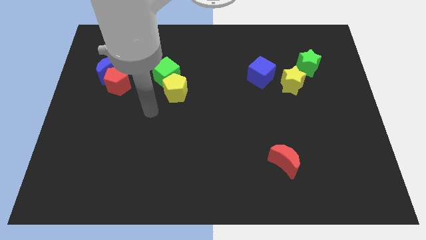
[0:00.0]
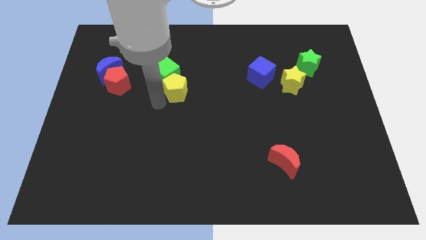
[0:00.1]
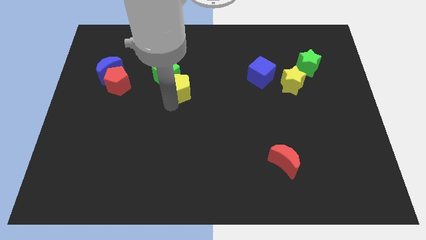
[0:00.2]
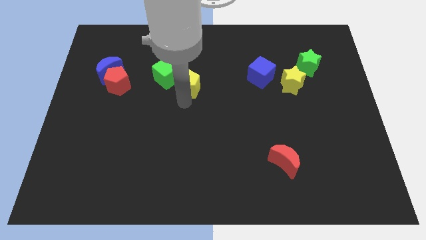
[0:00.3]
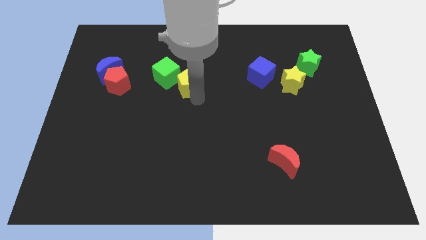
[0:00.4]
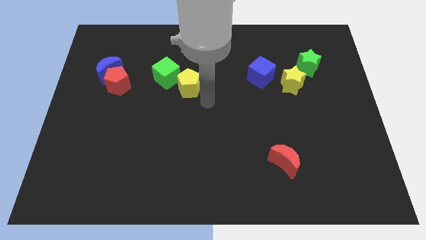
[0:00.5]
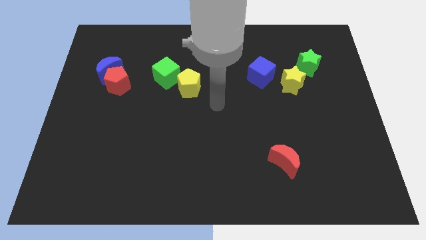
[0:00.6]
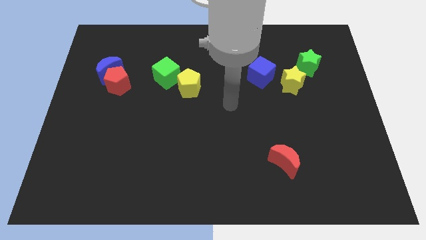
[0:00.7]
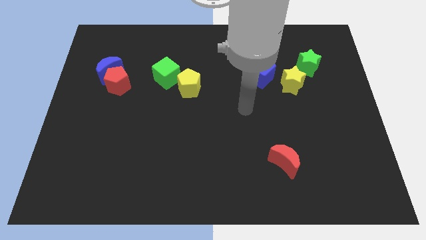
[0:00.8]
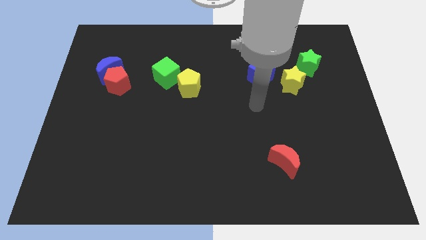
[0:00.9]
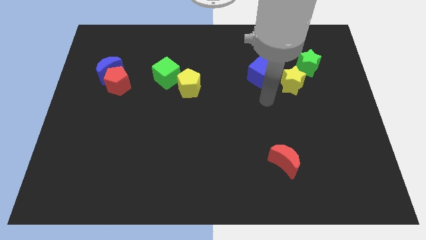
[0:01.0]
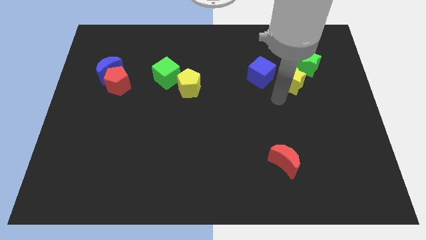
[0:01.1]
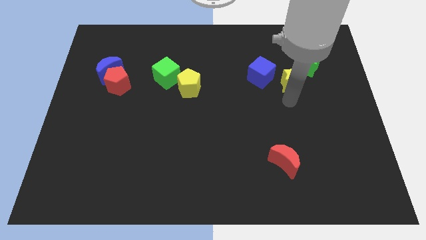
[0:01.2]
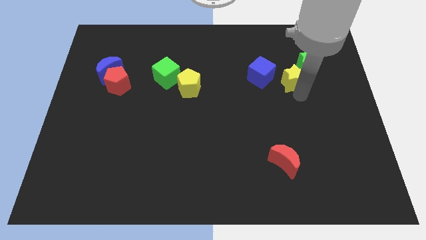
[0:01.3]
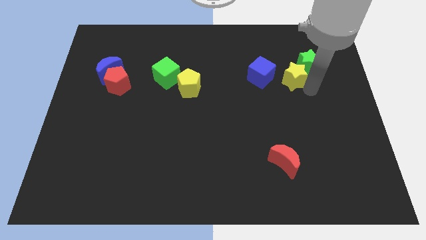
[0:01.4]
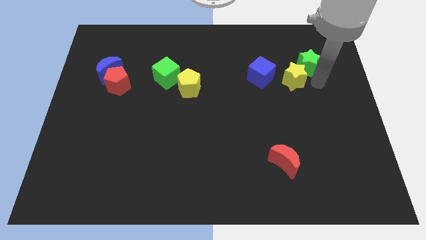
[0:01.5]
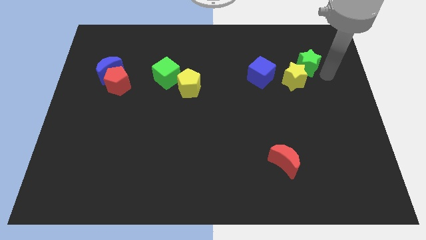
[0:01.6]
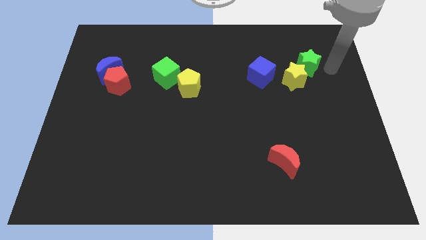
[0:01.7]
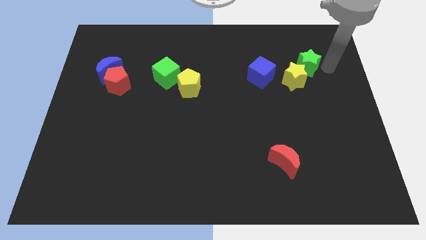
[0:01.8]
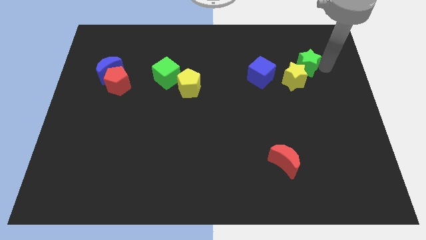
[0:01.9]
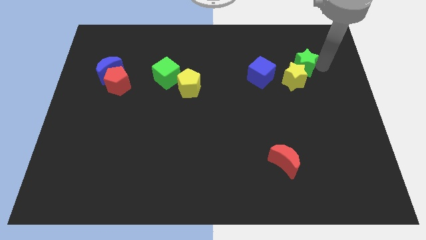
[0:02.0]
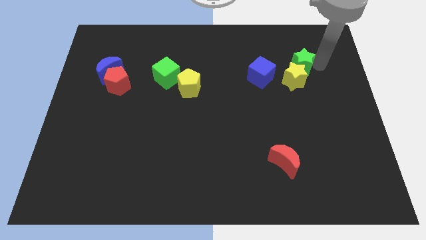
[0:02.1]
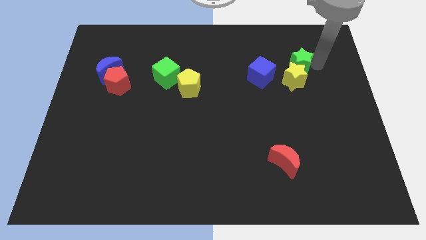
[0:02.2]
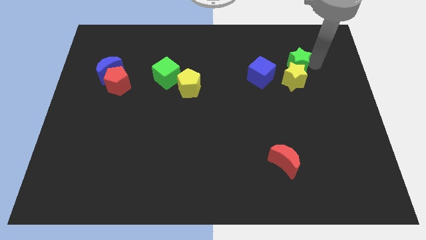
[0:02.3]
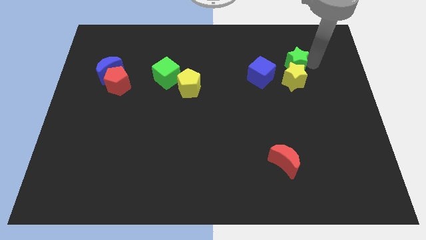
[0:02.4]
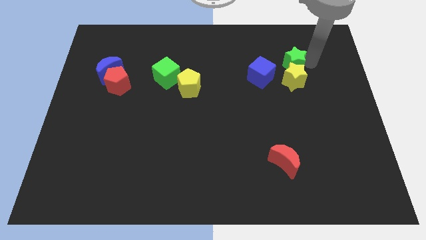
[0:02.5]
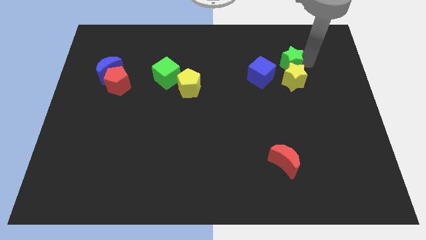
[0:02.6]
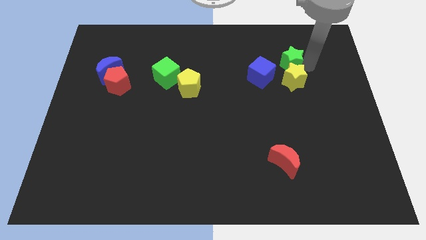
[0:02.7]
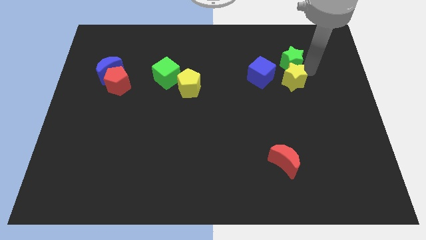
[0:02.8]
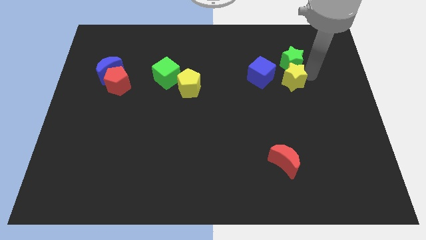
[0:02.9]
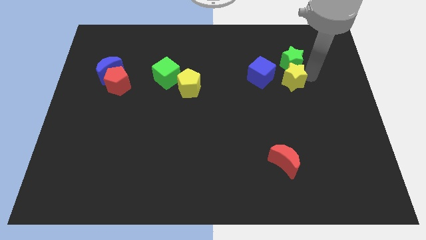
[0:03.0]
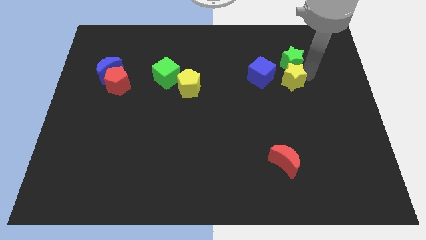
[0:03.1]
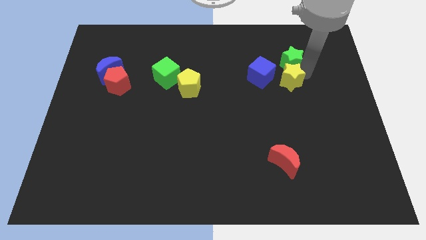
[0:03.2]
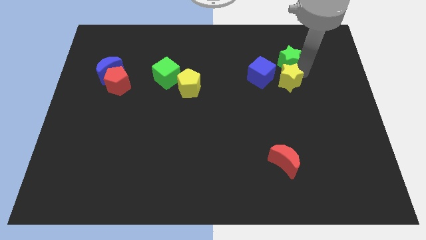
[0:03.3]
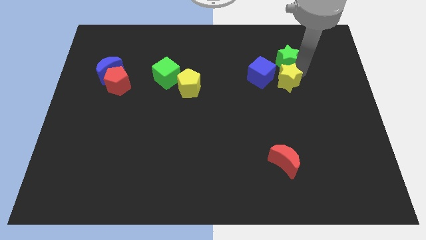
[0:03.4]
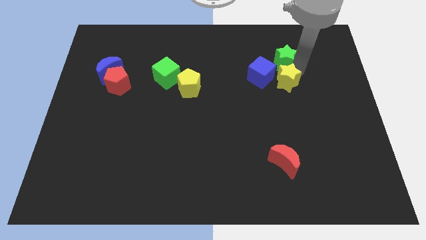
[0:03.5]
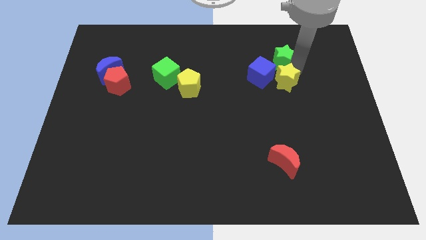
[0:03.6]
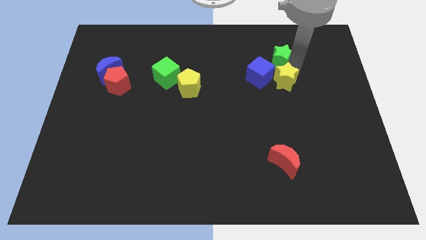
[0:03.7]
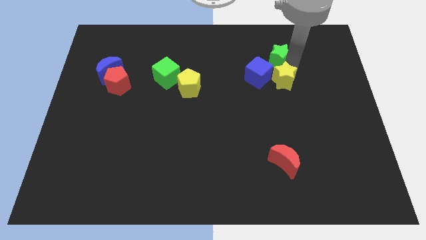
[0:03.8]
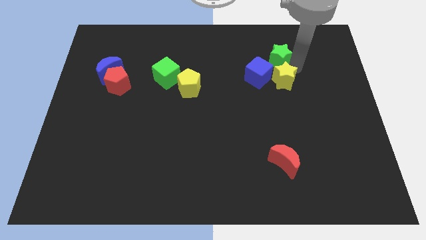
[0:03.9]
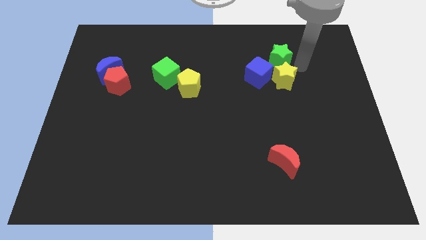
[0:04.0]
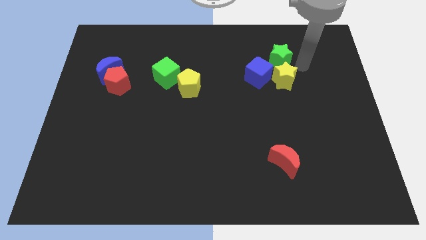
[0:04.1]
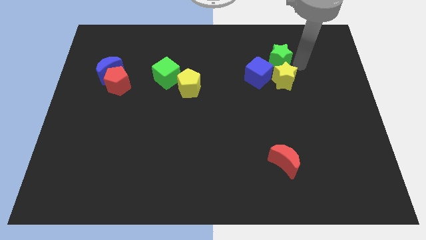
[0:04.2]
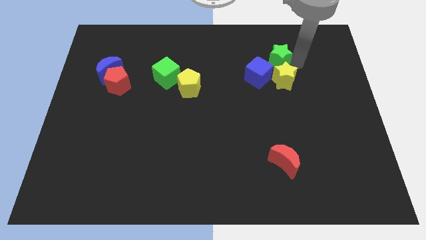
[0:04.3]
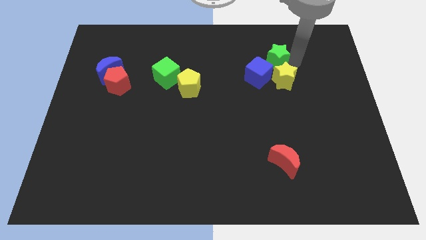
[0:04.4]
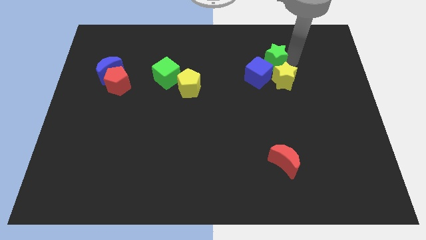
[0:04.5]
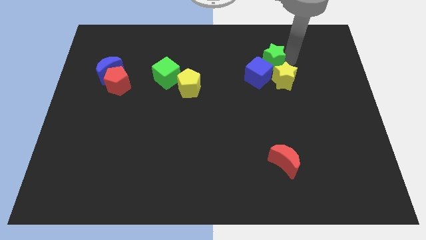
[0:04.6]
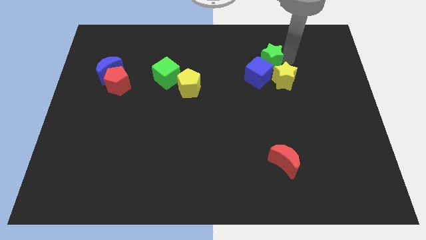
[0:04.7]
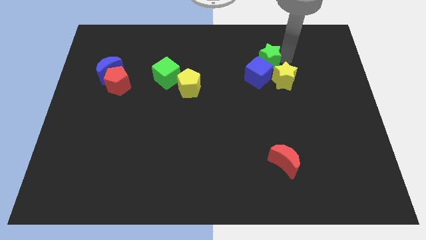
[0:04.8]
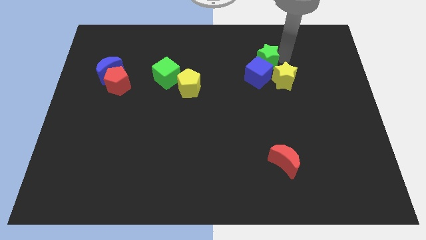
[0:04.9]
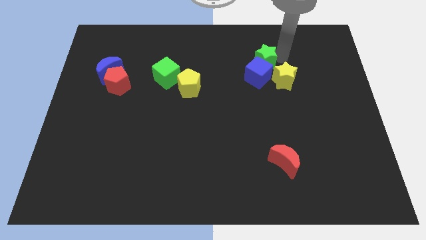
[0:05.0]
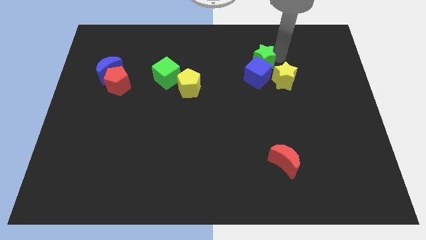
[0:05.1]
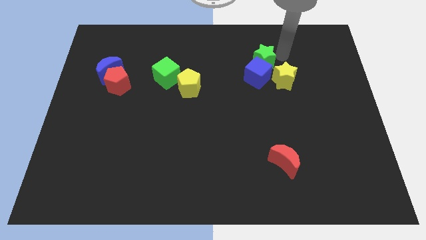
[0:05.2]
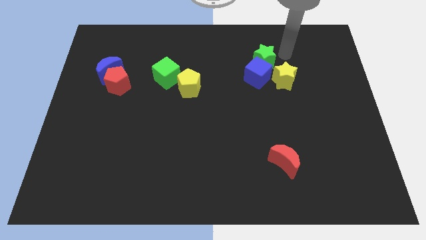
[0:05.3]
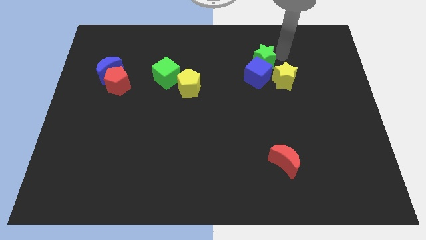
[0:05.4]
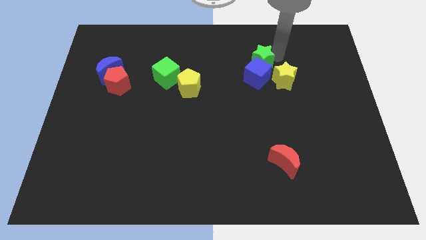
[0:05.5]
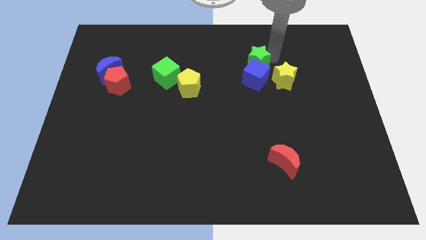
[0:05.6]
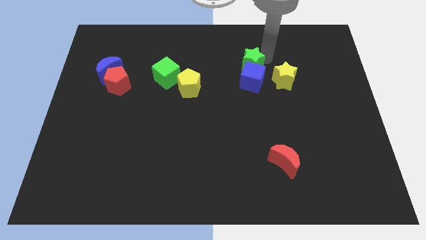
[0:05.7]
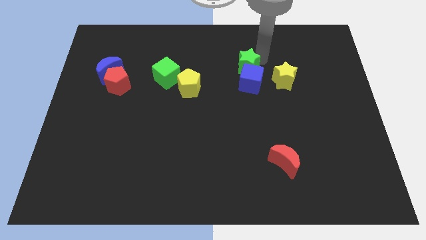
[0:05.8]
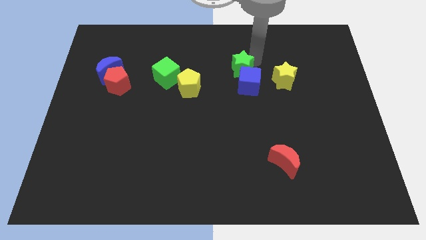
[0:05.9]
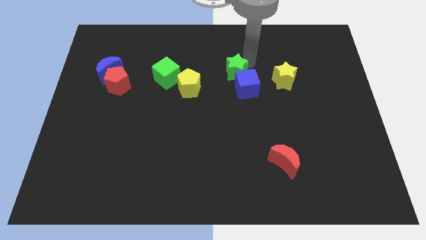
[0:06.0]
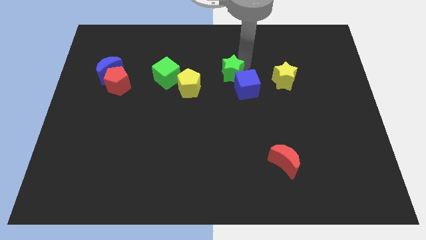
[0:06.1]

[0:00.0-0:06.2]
slide the green star to the right of the yellow pentagon

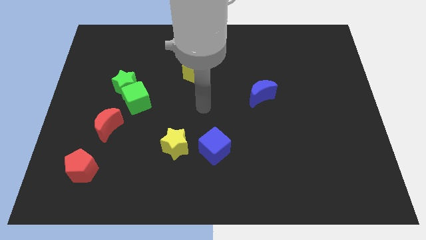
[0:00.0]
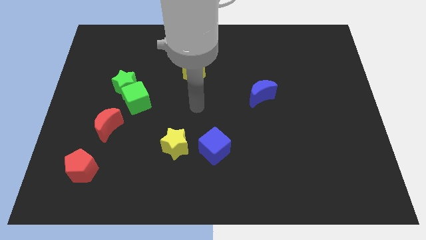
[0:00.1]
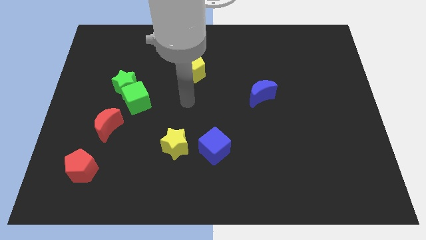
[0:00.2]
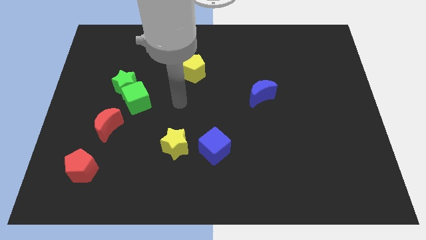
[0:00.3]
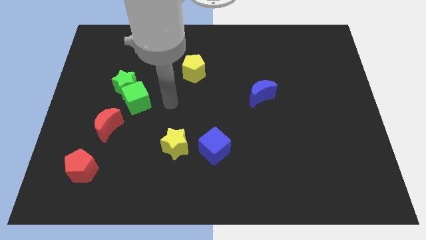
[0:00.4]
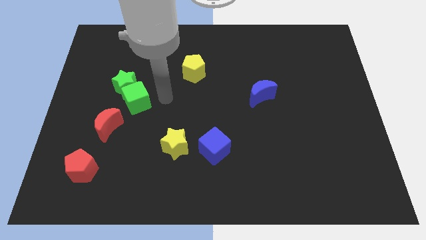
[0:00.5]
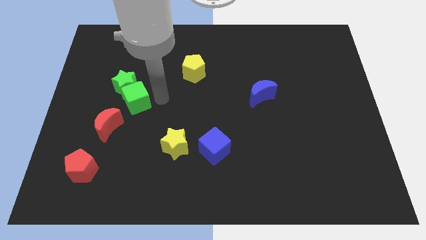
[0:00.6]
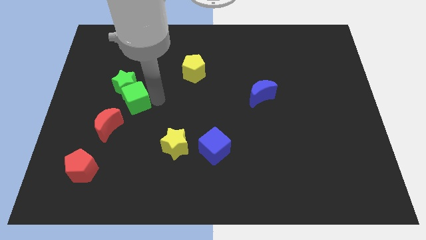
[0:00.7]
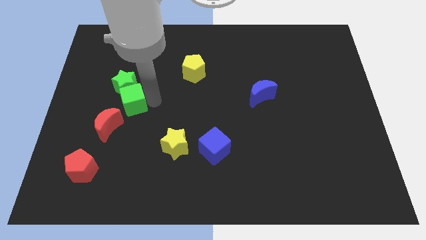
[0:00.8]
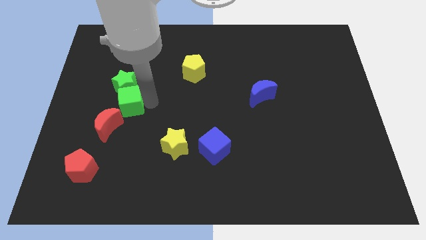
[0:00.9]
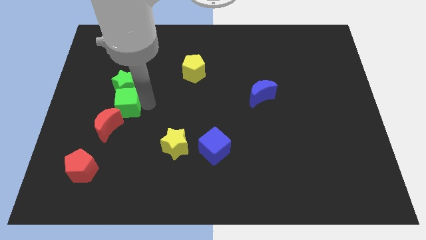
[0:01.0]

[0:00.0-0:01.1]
slide the green cube to the bottom left side of the green star
